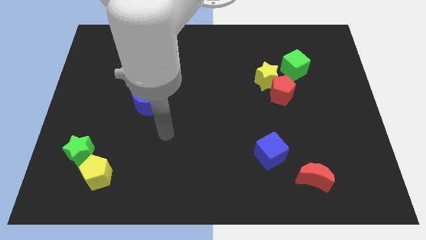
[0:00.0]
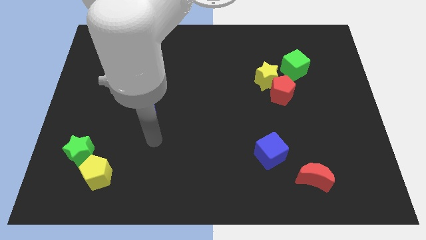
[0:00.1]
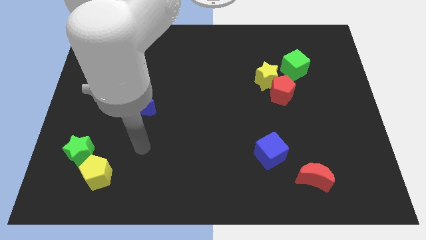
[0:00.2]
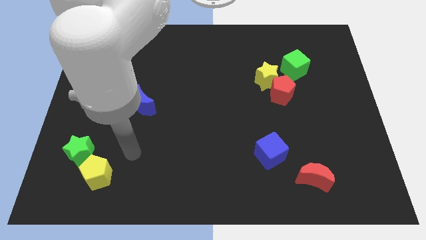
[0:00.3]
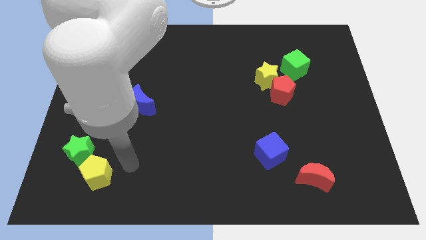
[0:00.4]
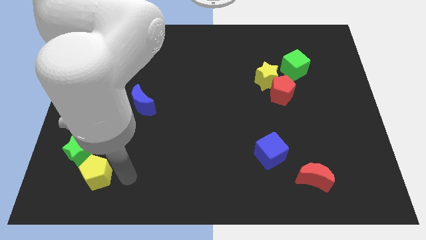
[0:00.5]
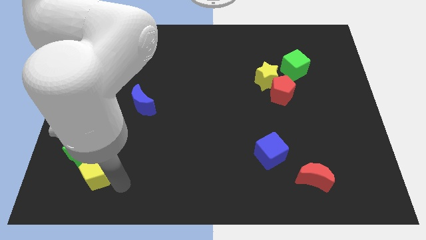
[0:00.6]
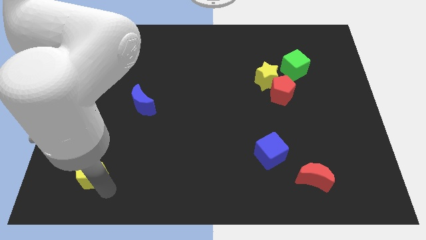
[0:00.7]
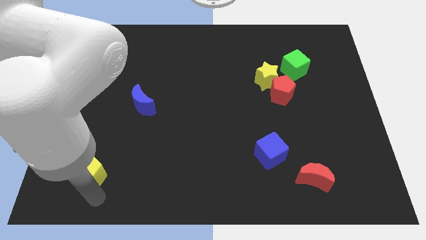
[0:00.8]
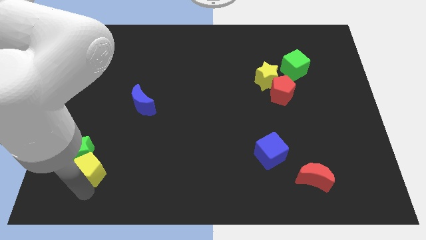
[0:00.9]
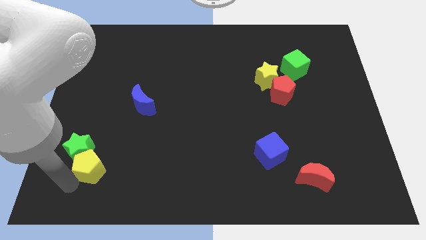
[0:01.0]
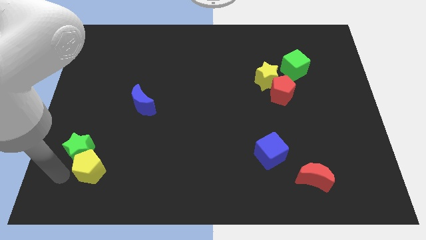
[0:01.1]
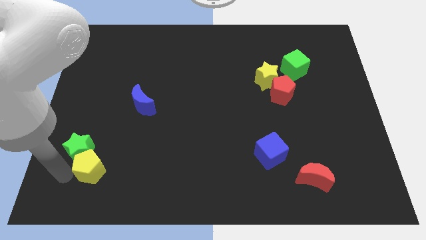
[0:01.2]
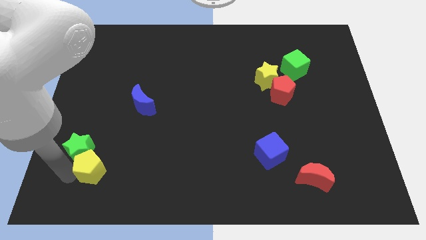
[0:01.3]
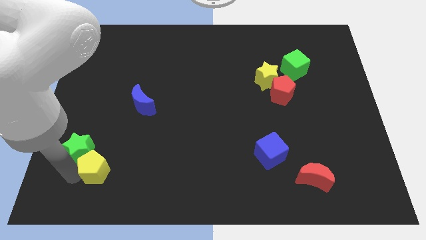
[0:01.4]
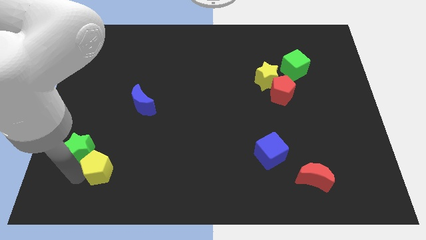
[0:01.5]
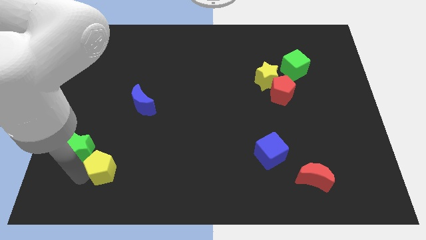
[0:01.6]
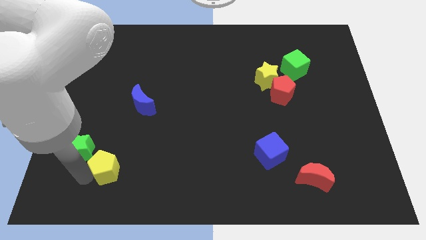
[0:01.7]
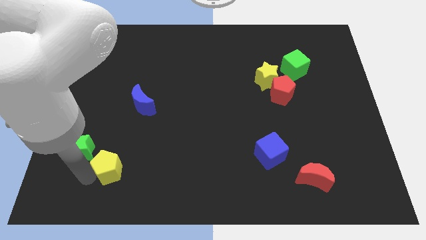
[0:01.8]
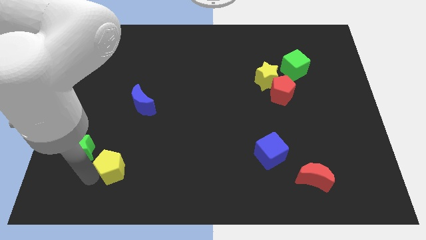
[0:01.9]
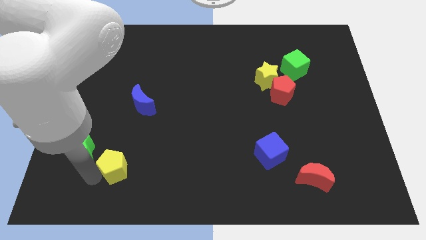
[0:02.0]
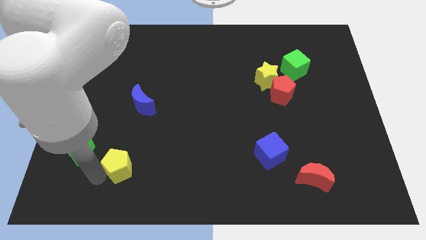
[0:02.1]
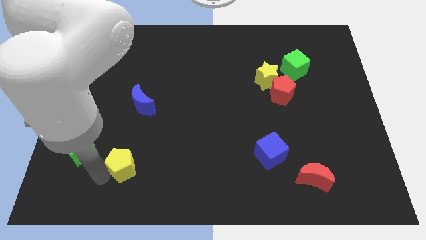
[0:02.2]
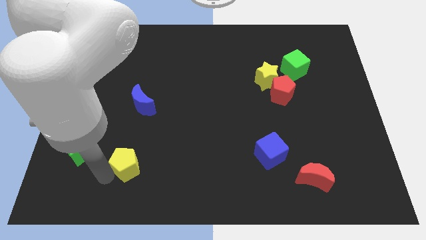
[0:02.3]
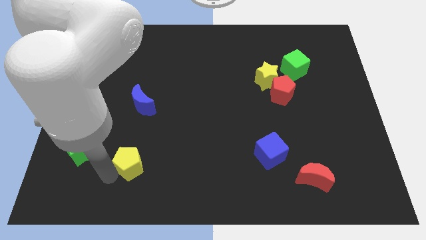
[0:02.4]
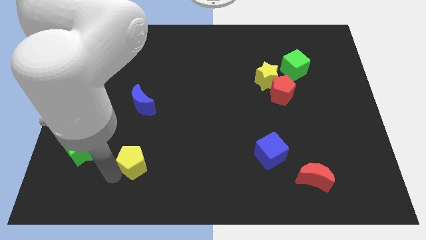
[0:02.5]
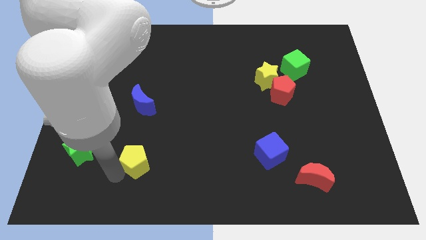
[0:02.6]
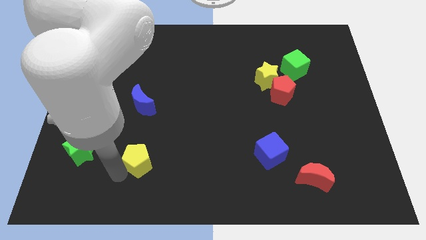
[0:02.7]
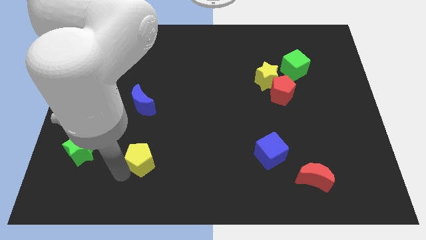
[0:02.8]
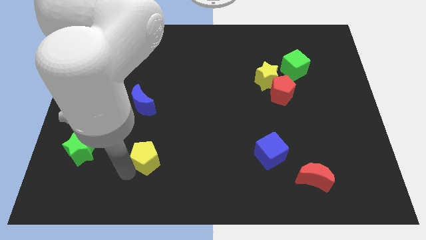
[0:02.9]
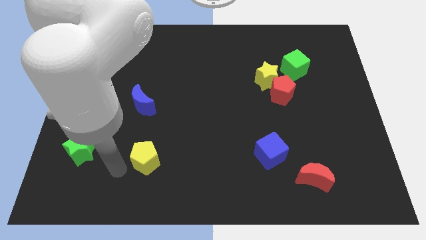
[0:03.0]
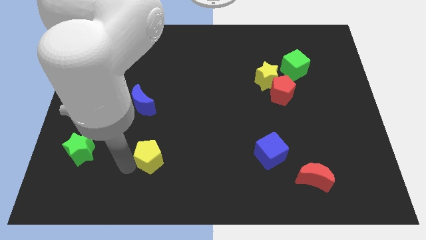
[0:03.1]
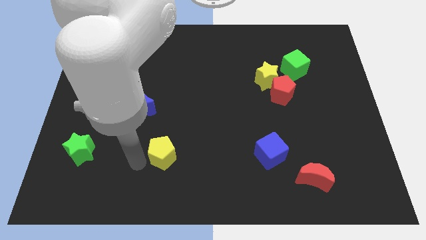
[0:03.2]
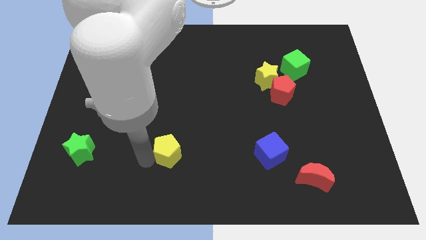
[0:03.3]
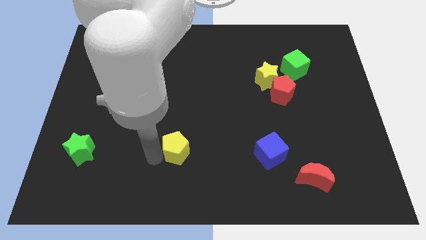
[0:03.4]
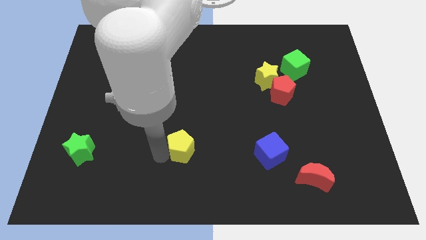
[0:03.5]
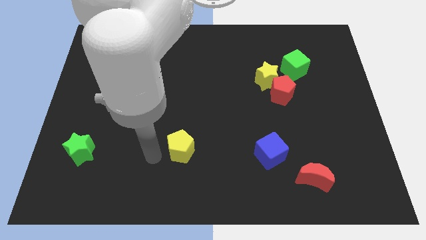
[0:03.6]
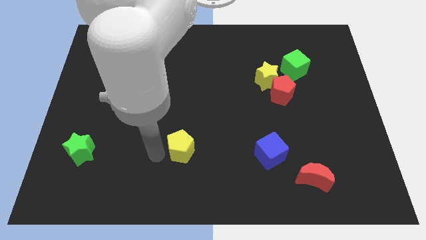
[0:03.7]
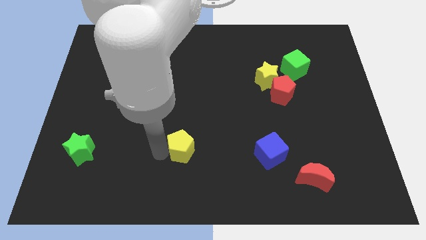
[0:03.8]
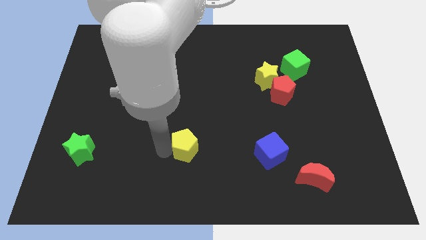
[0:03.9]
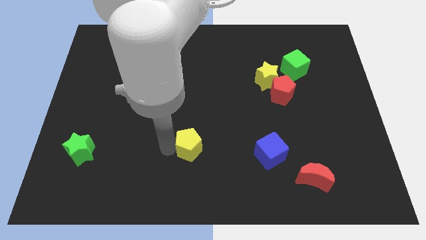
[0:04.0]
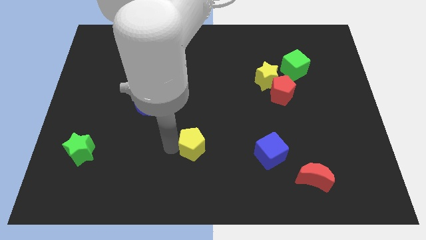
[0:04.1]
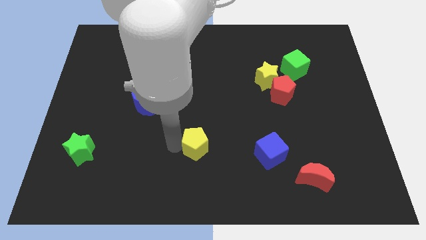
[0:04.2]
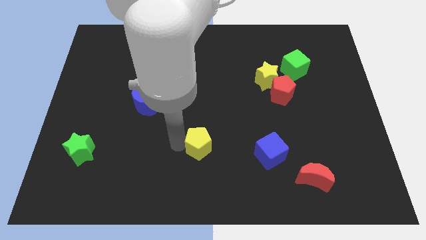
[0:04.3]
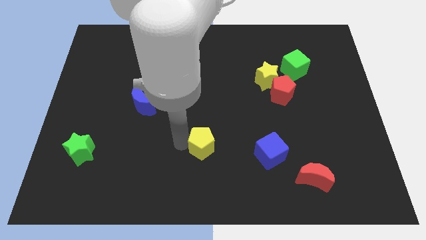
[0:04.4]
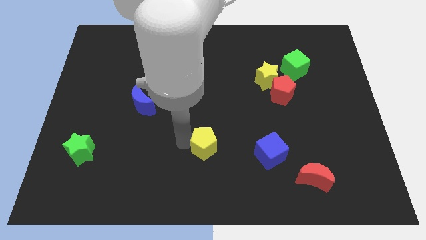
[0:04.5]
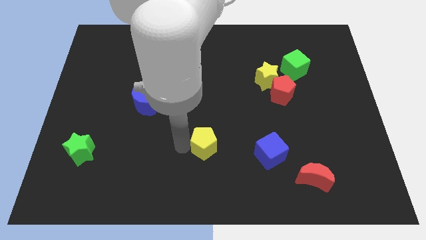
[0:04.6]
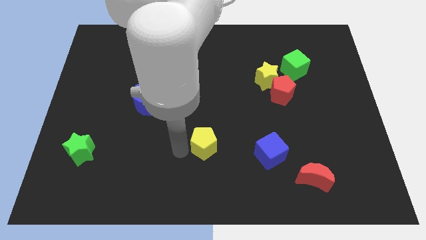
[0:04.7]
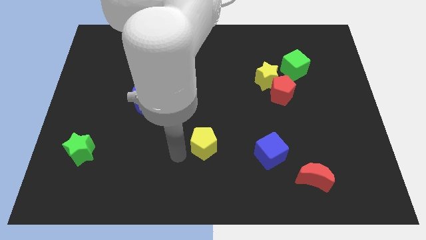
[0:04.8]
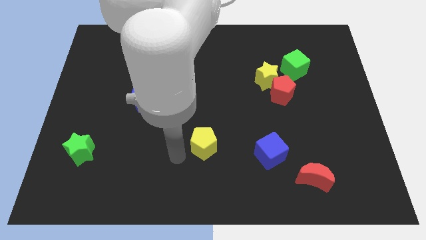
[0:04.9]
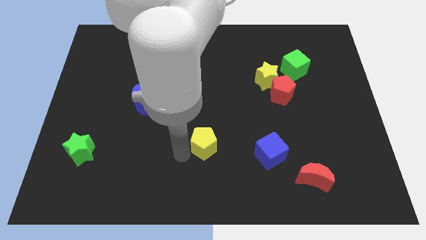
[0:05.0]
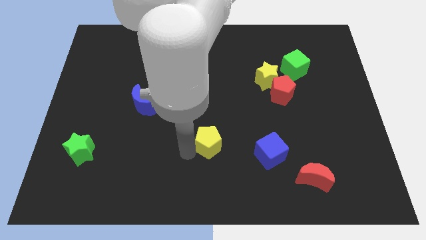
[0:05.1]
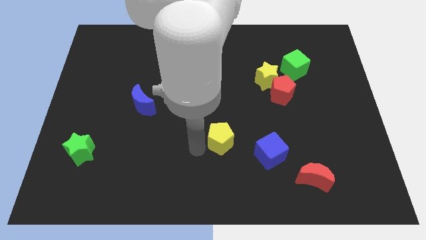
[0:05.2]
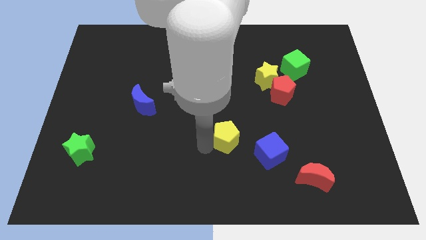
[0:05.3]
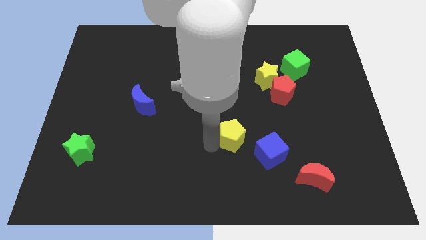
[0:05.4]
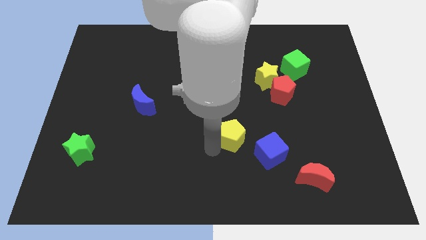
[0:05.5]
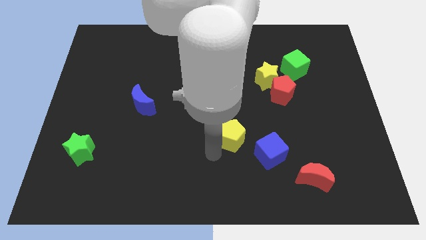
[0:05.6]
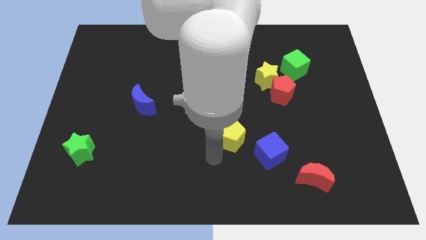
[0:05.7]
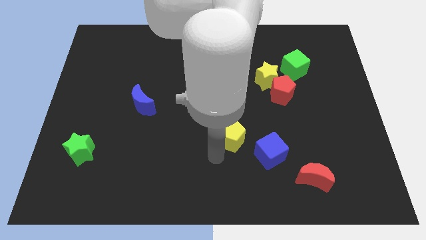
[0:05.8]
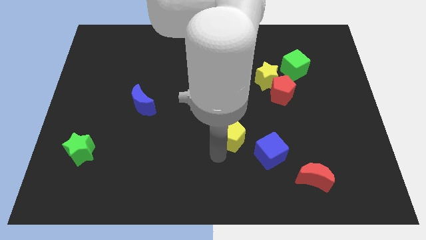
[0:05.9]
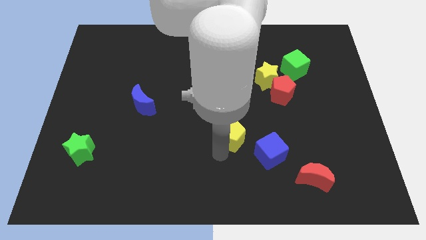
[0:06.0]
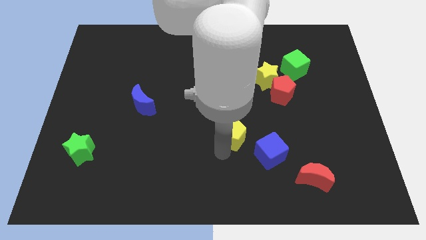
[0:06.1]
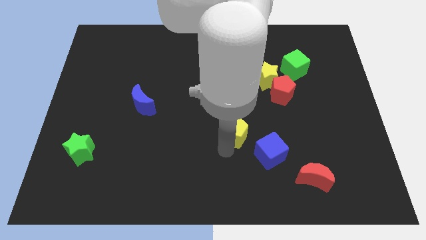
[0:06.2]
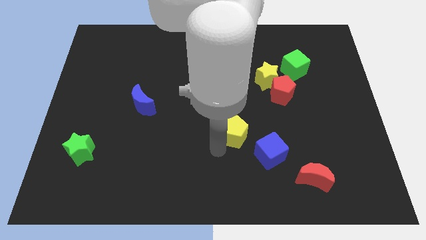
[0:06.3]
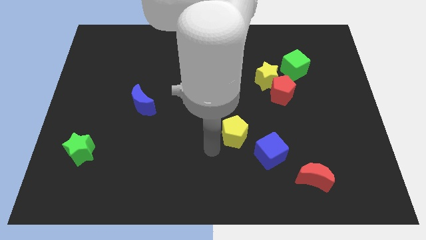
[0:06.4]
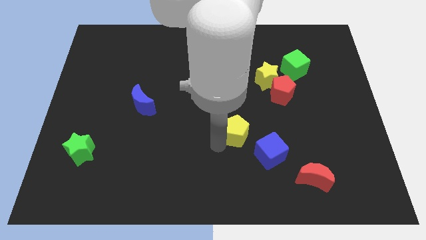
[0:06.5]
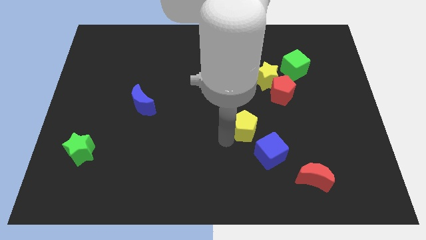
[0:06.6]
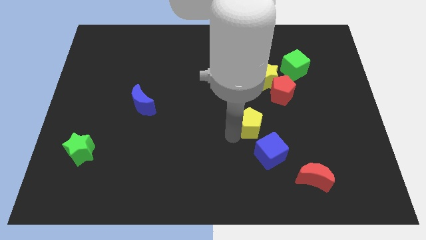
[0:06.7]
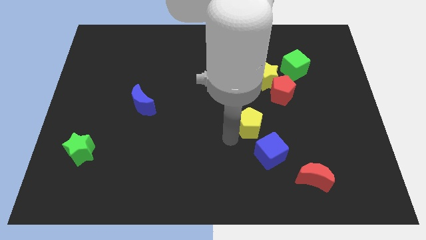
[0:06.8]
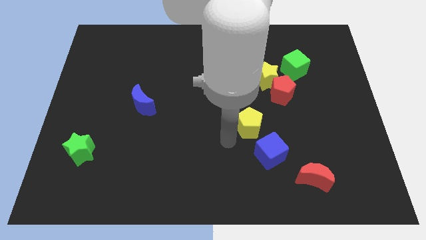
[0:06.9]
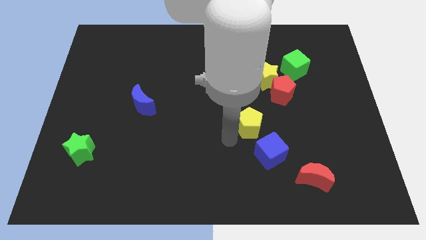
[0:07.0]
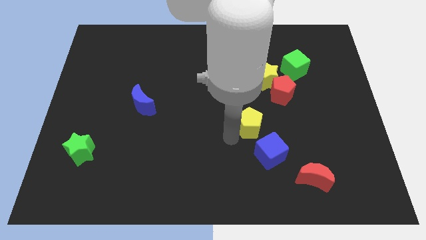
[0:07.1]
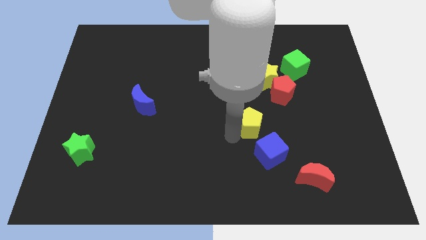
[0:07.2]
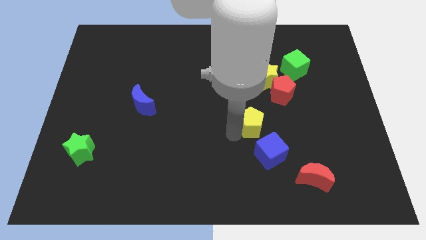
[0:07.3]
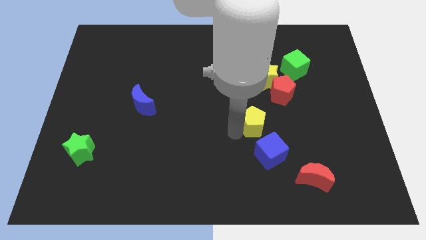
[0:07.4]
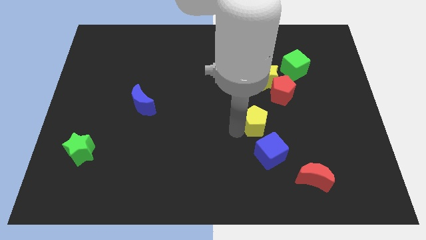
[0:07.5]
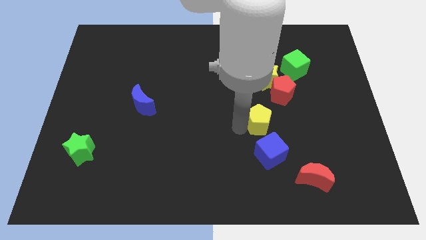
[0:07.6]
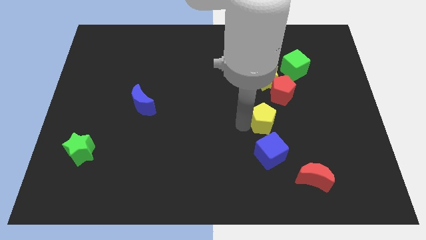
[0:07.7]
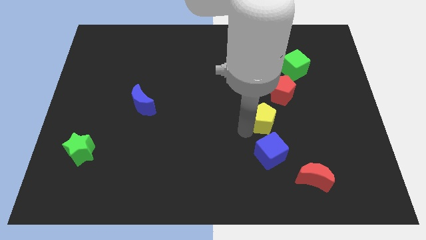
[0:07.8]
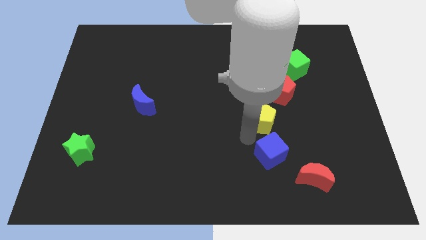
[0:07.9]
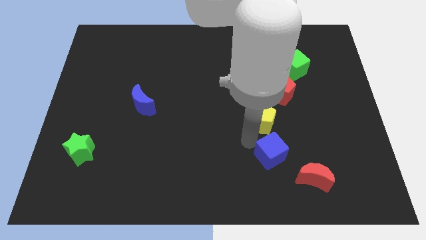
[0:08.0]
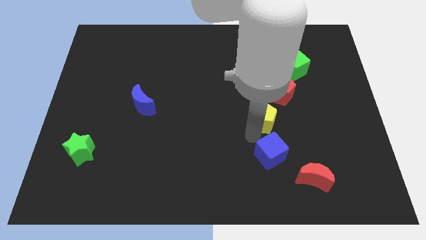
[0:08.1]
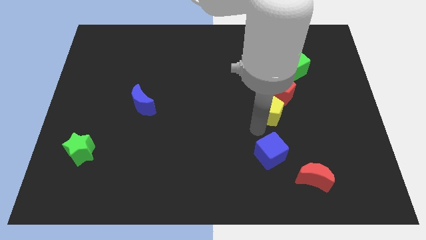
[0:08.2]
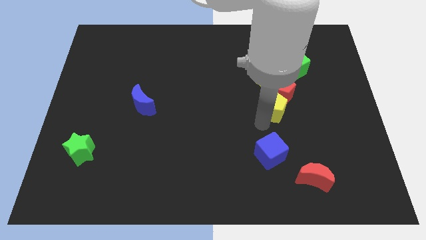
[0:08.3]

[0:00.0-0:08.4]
put the yellow pentagon close to the red pentagon
